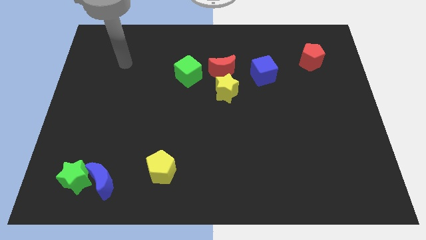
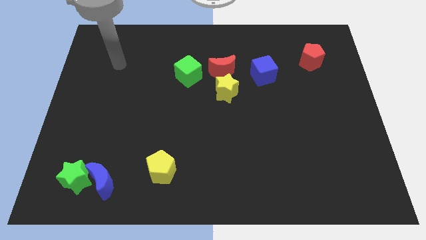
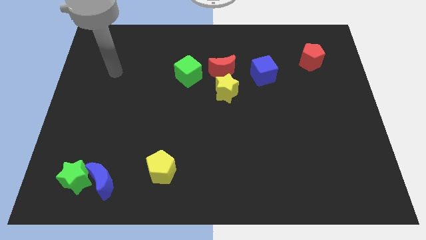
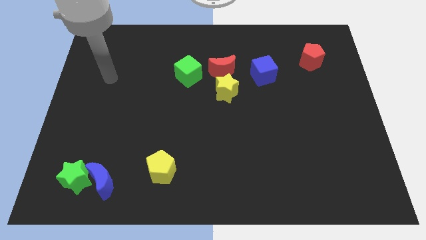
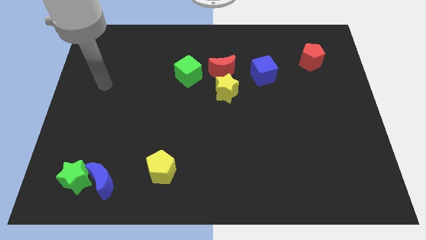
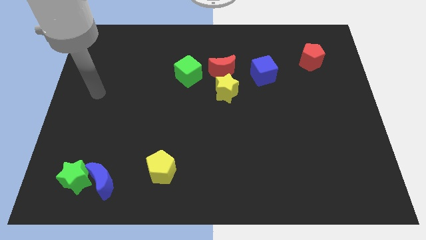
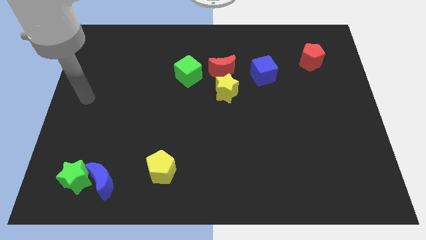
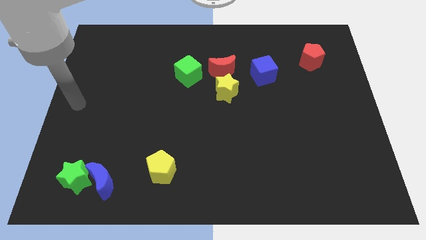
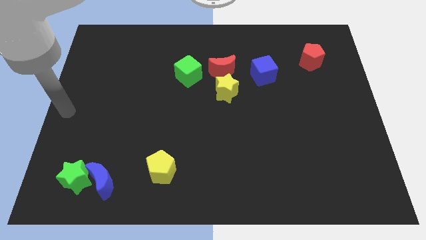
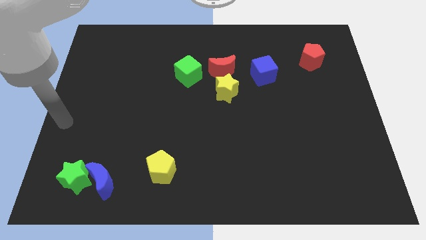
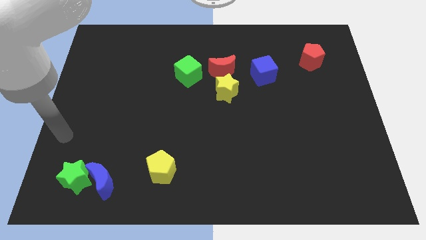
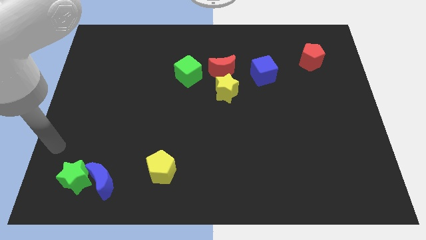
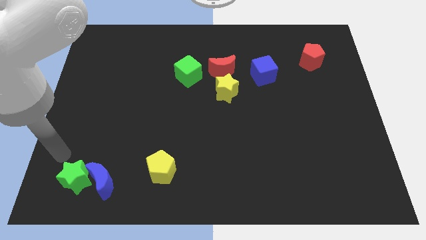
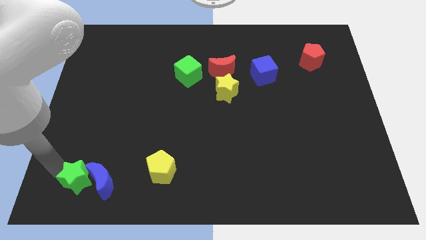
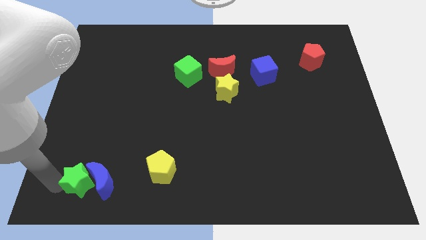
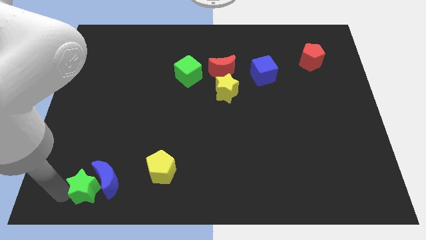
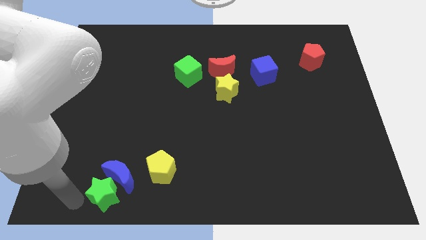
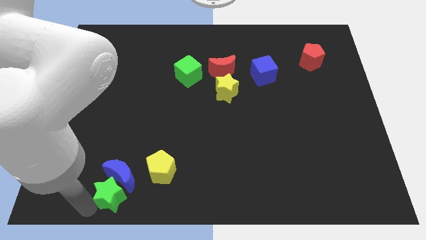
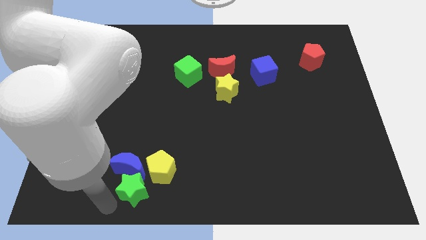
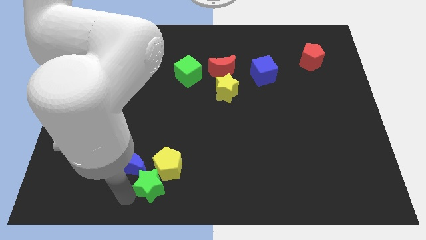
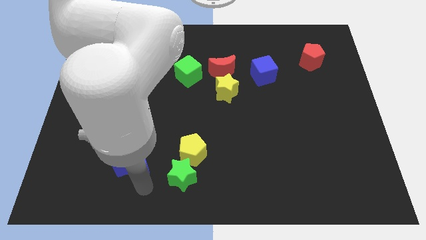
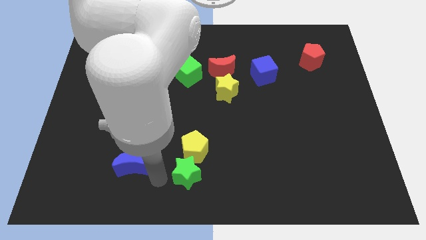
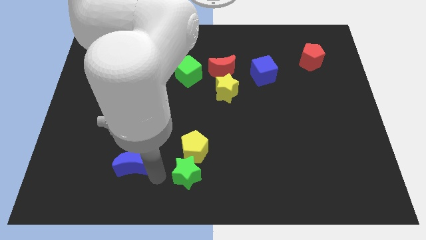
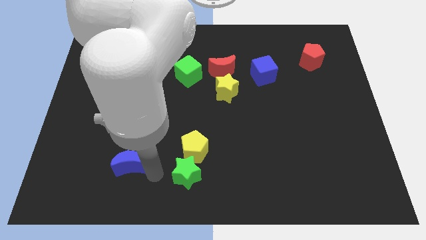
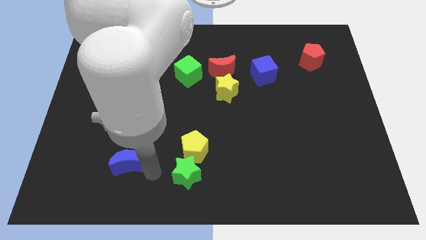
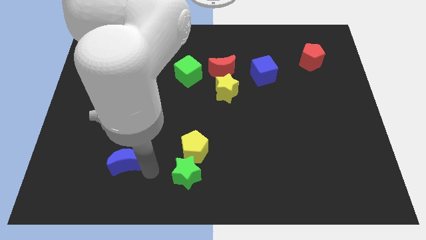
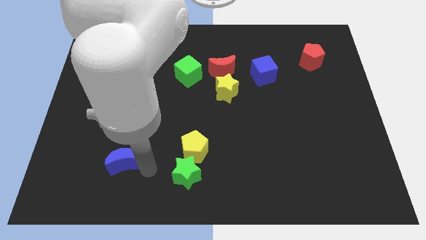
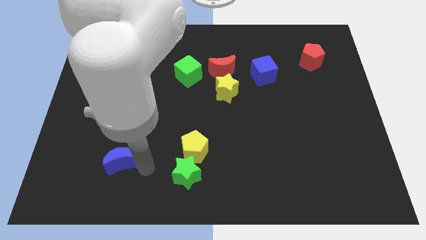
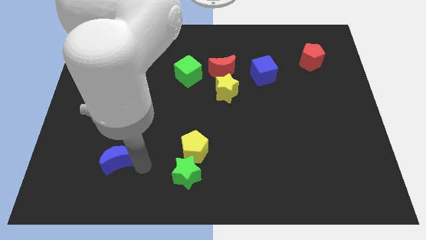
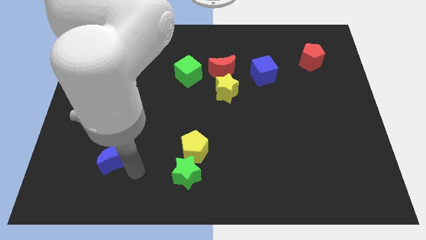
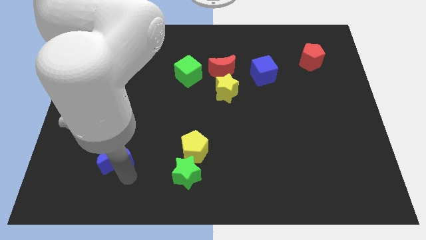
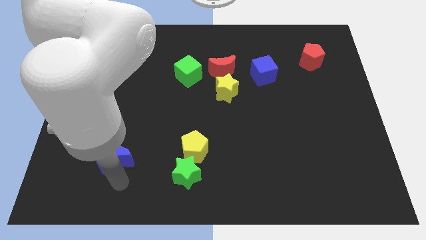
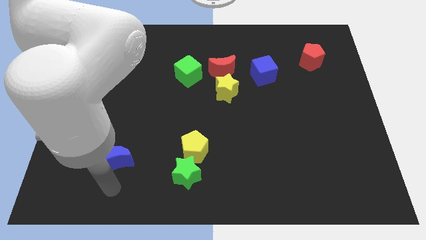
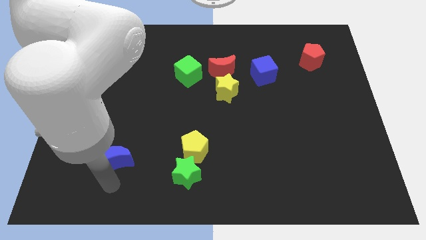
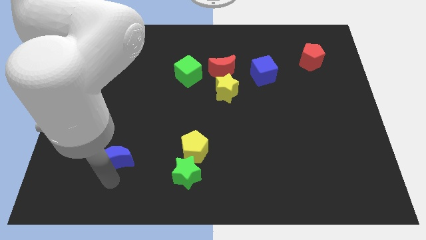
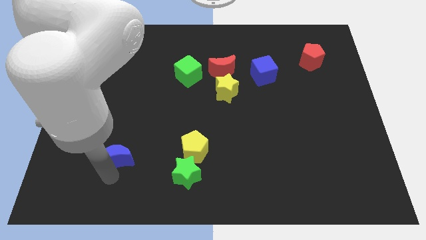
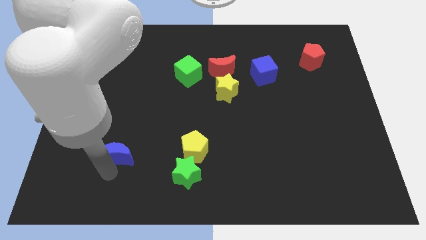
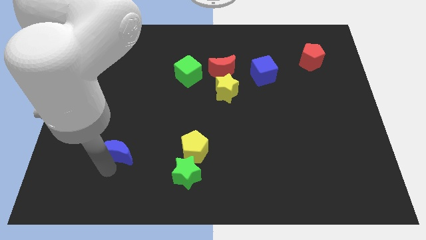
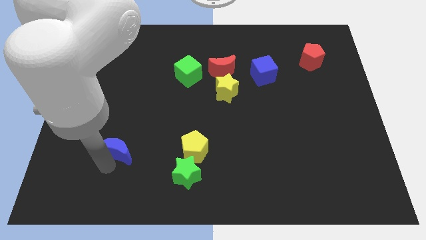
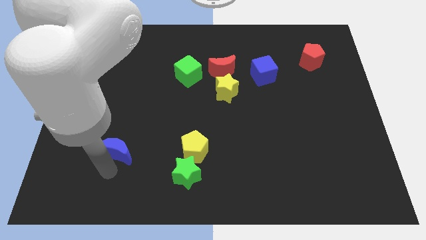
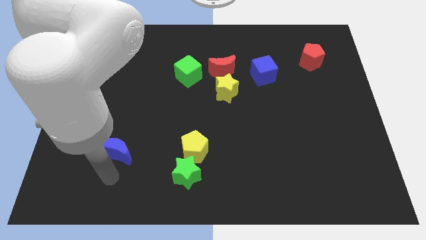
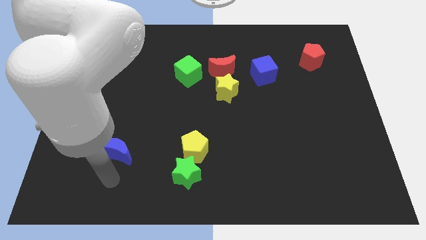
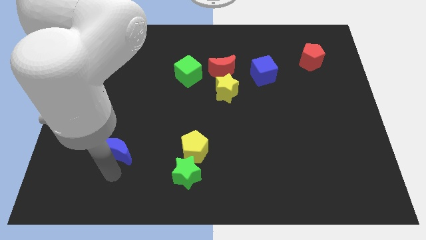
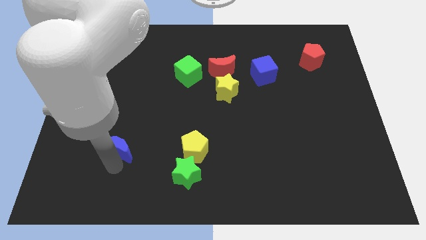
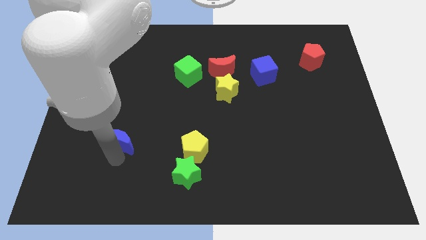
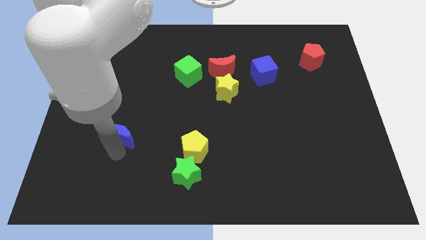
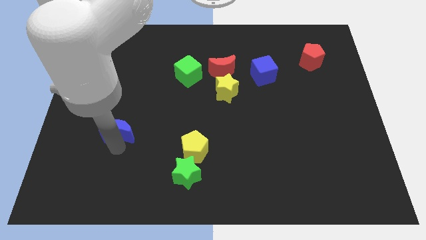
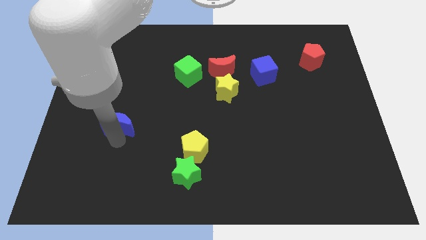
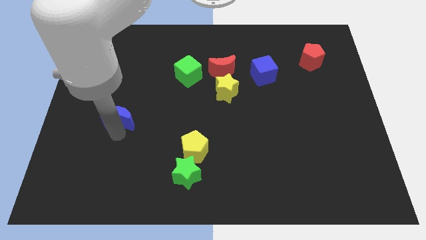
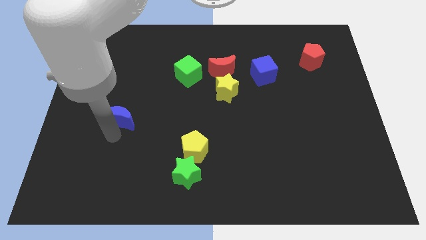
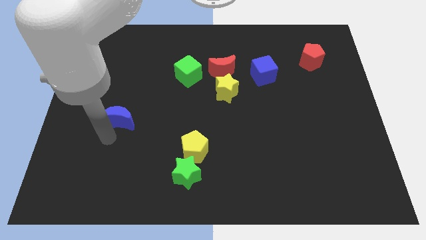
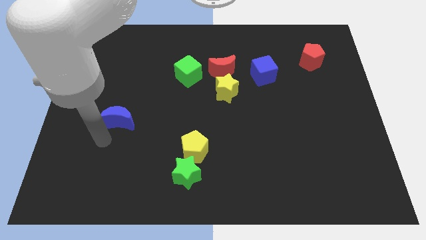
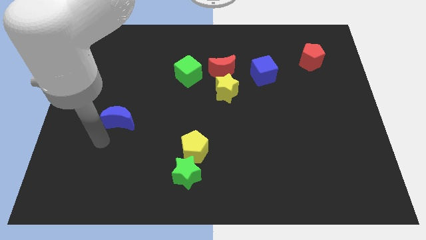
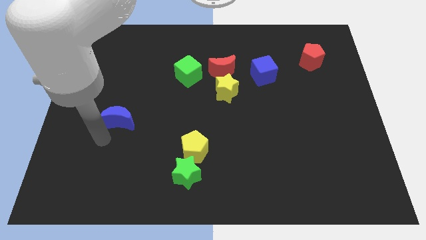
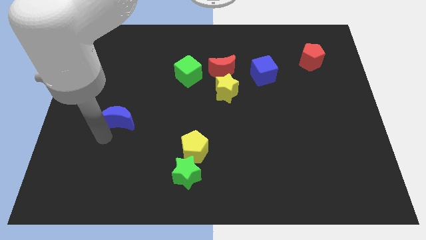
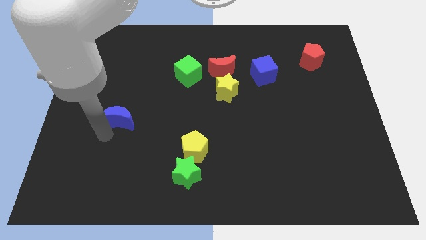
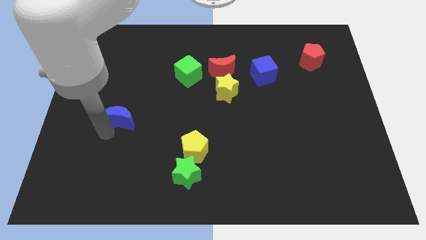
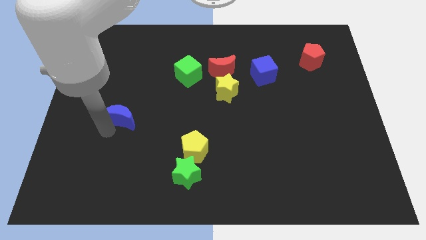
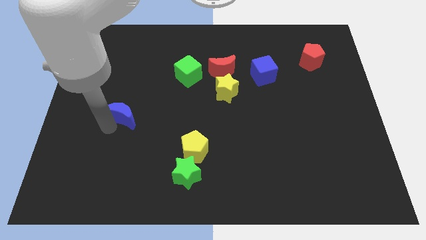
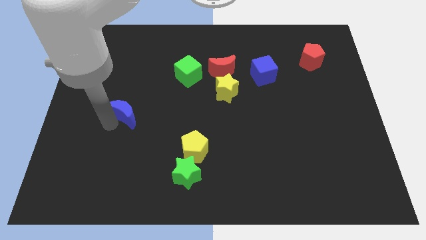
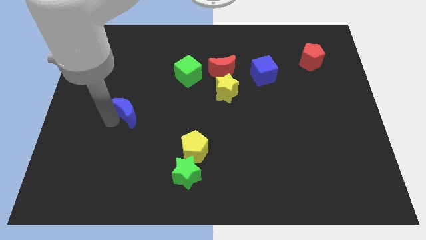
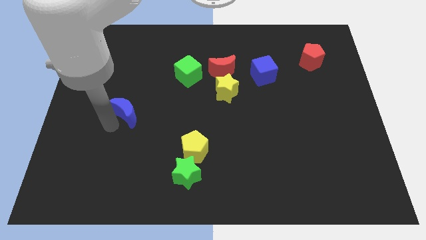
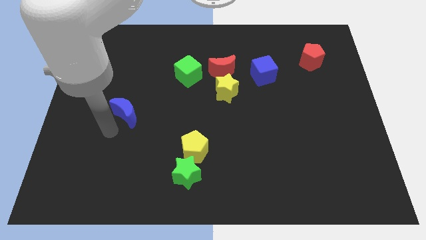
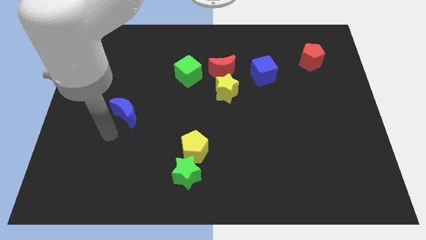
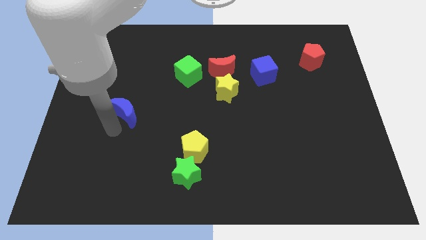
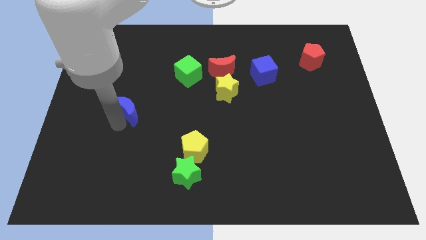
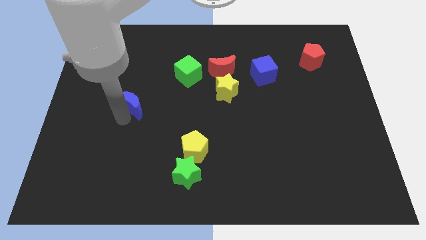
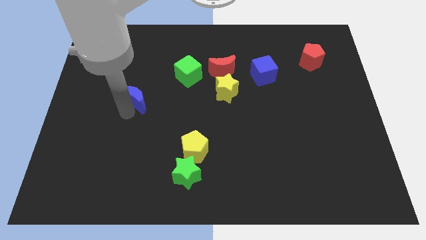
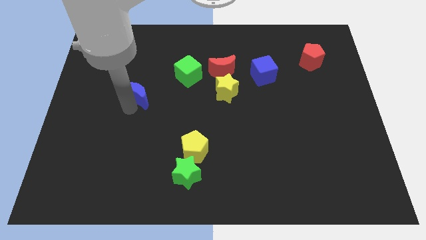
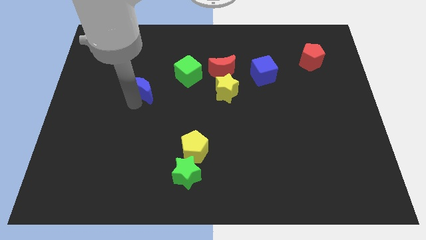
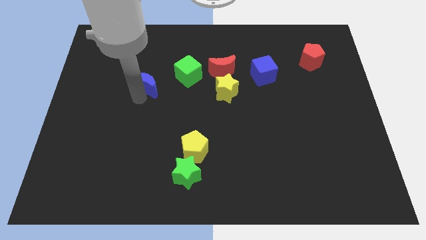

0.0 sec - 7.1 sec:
slide the blue moon left of the green cube
